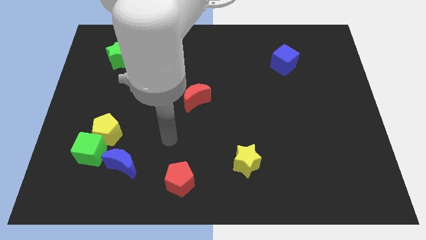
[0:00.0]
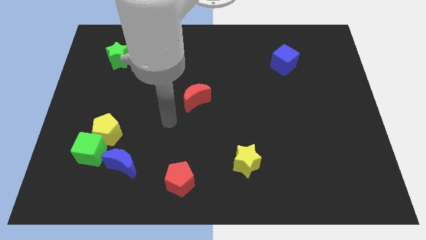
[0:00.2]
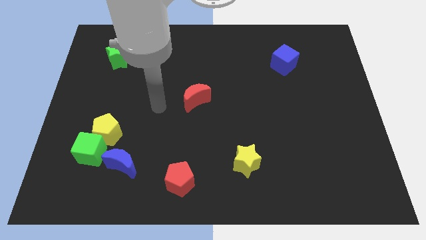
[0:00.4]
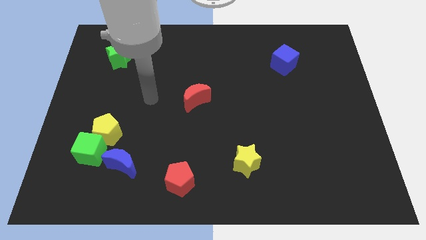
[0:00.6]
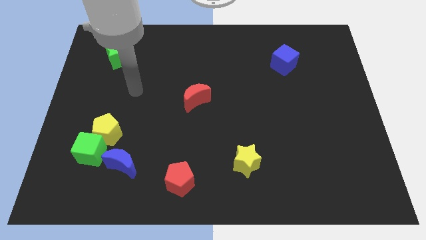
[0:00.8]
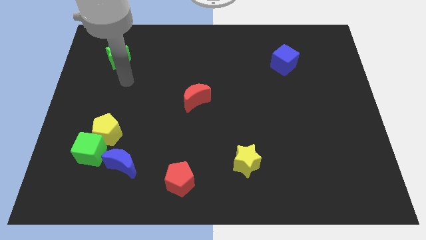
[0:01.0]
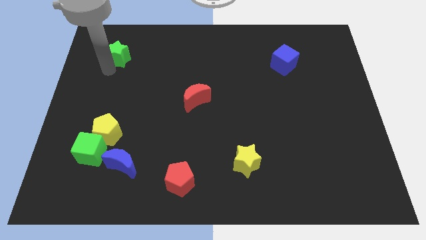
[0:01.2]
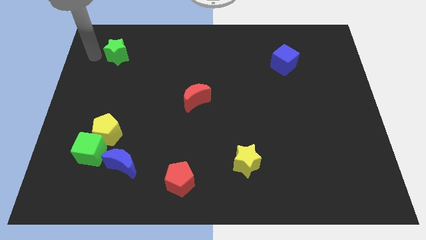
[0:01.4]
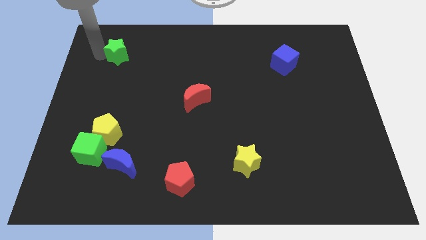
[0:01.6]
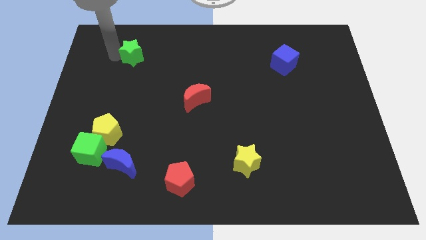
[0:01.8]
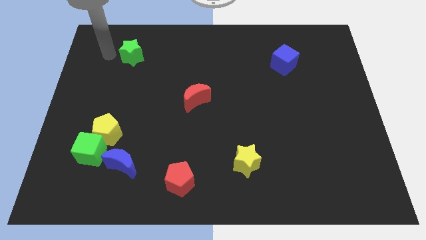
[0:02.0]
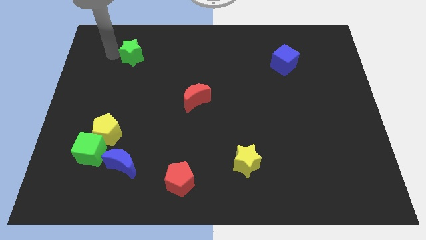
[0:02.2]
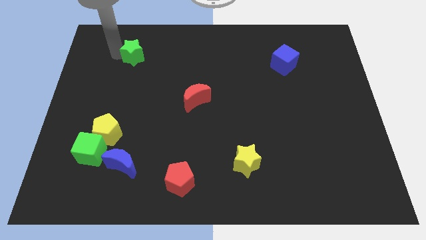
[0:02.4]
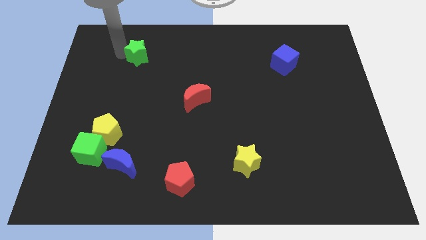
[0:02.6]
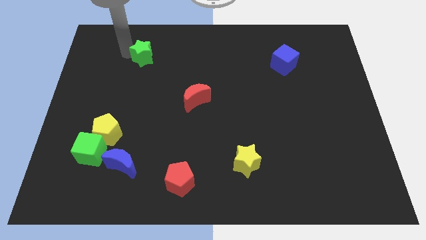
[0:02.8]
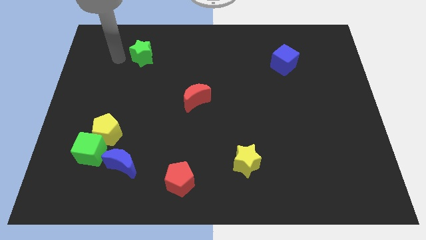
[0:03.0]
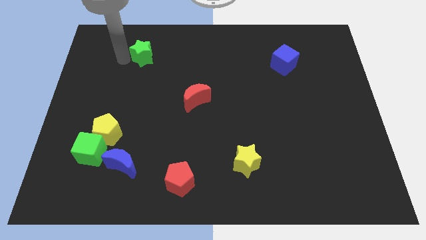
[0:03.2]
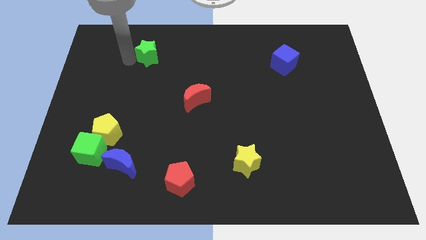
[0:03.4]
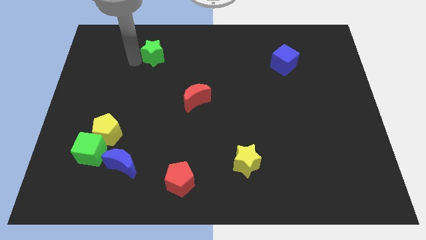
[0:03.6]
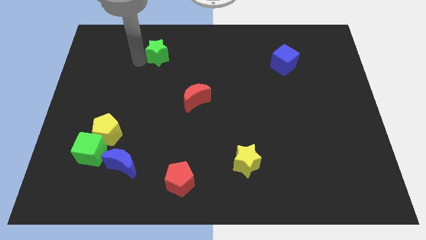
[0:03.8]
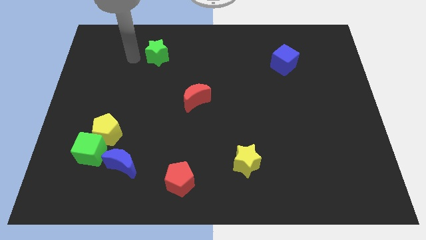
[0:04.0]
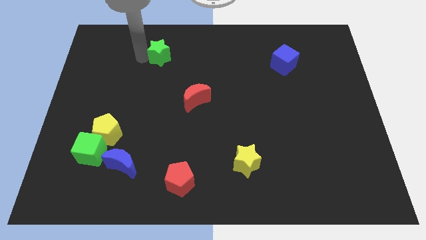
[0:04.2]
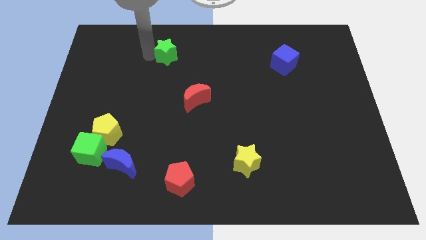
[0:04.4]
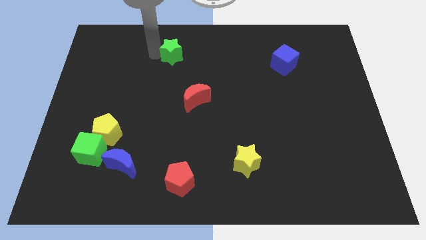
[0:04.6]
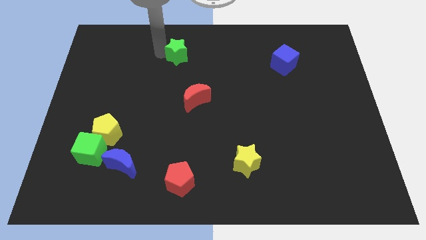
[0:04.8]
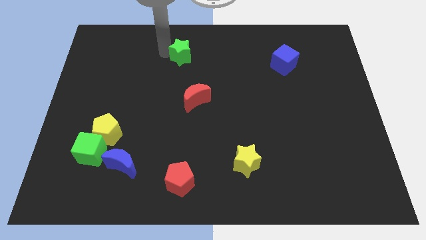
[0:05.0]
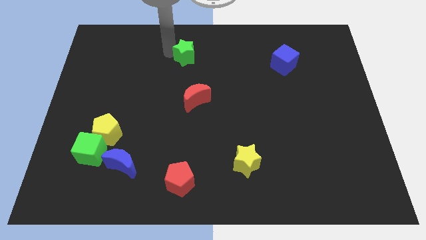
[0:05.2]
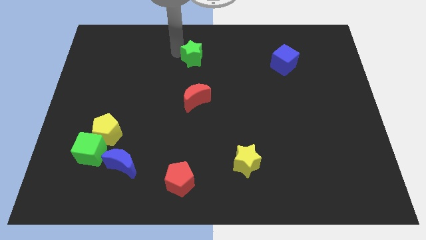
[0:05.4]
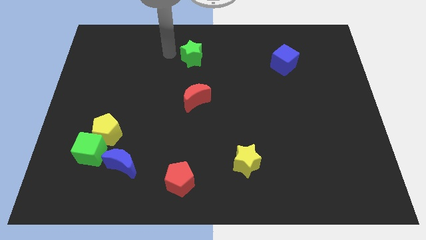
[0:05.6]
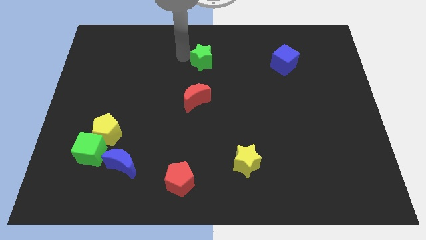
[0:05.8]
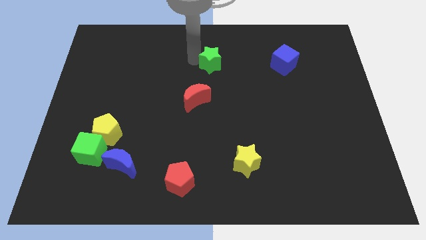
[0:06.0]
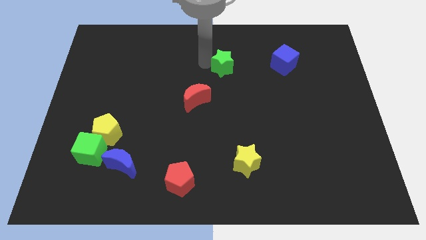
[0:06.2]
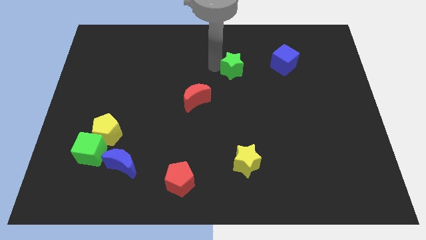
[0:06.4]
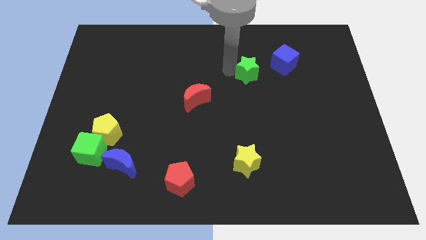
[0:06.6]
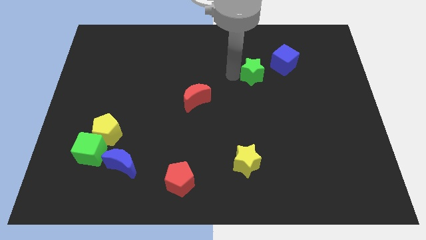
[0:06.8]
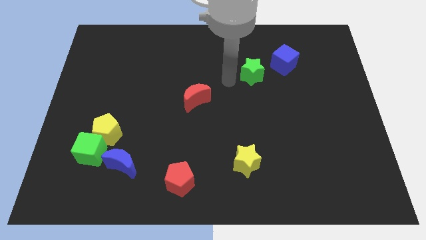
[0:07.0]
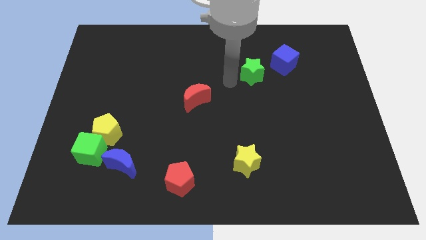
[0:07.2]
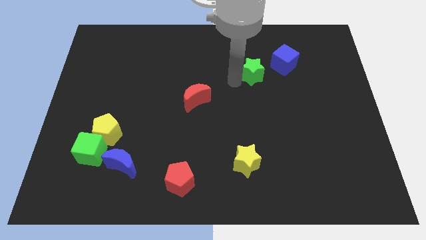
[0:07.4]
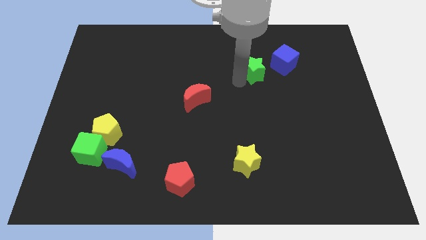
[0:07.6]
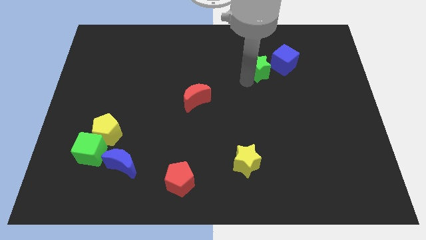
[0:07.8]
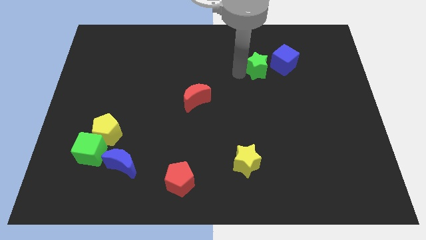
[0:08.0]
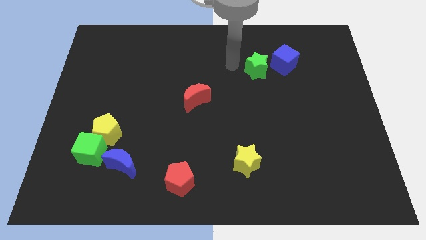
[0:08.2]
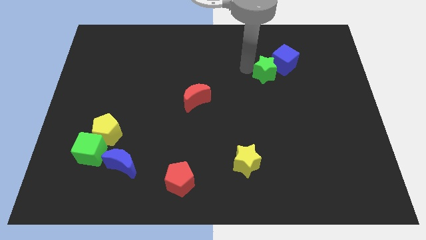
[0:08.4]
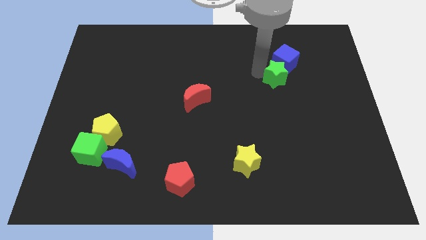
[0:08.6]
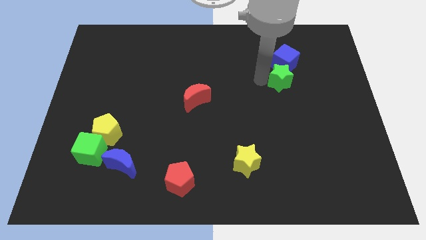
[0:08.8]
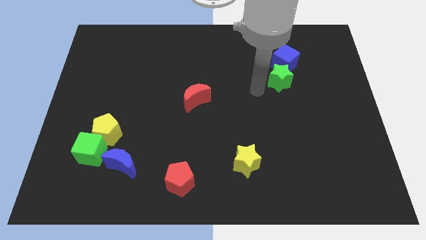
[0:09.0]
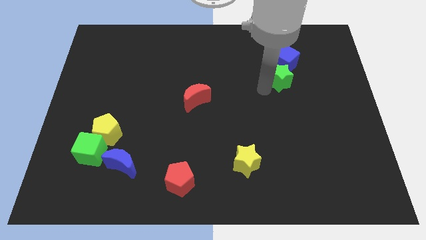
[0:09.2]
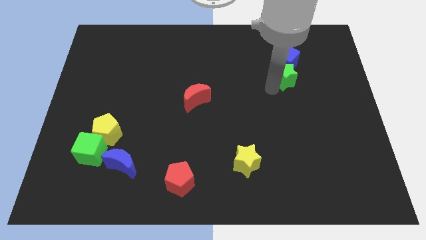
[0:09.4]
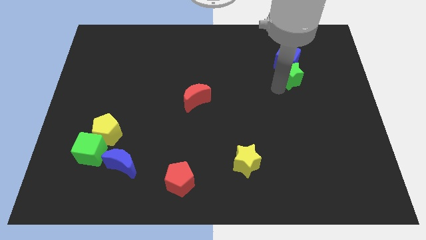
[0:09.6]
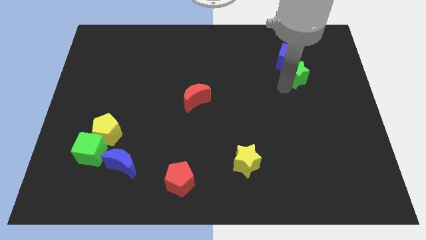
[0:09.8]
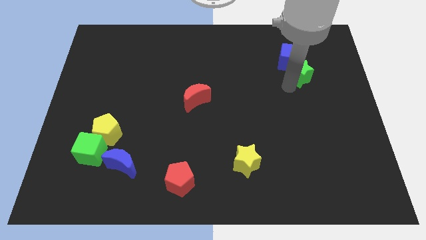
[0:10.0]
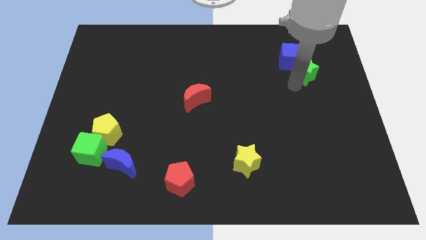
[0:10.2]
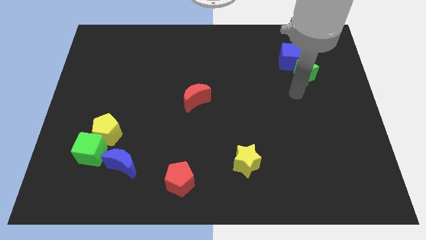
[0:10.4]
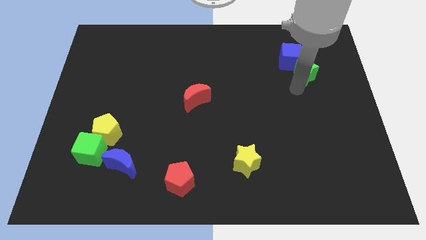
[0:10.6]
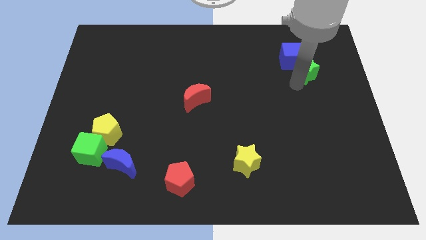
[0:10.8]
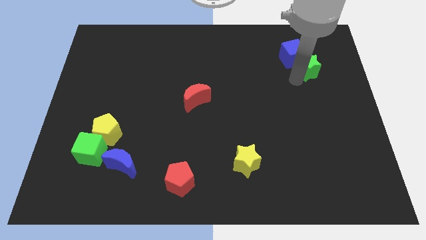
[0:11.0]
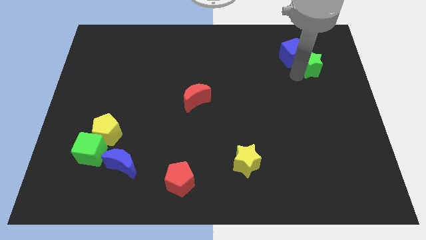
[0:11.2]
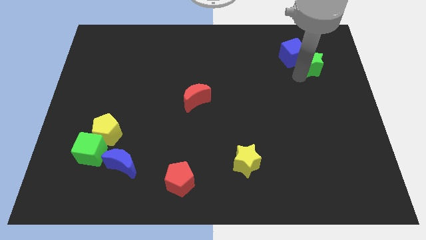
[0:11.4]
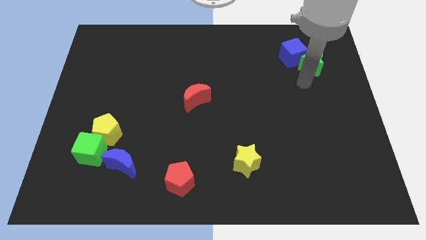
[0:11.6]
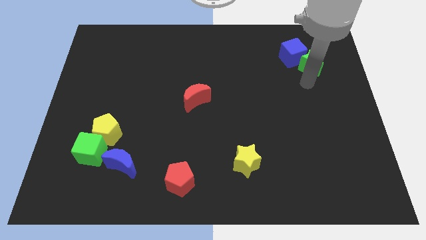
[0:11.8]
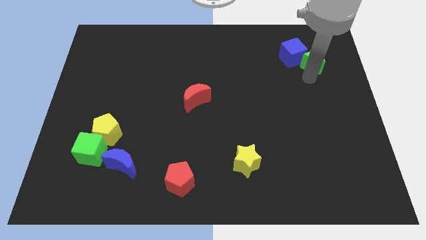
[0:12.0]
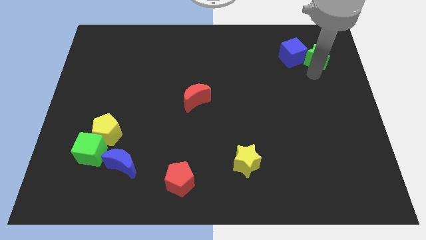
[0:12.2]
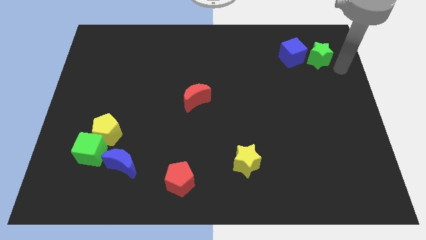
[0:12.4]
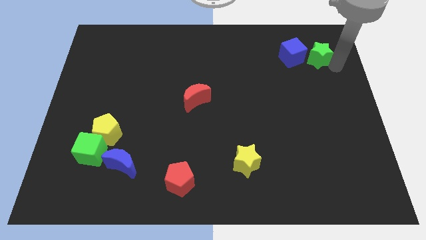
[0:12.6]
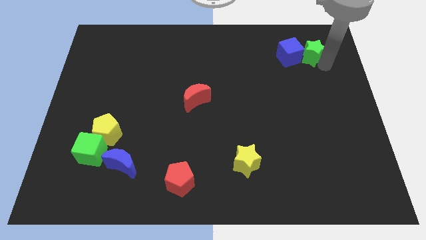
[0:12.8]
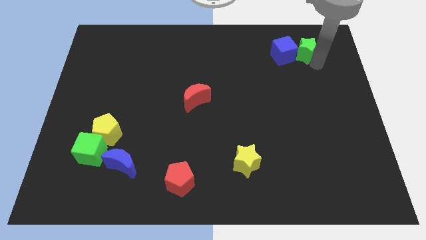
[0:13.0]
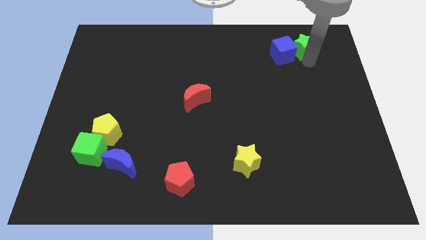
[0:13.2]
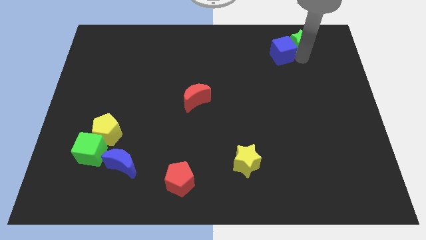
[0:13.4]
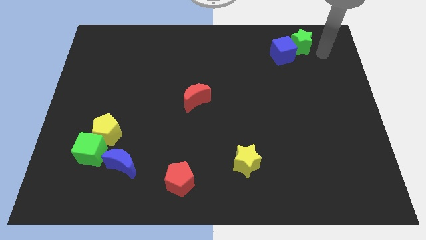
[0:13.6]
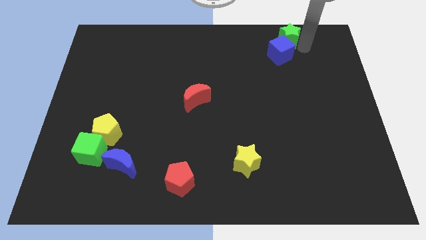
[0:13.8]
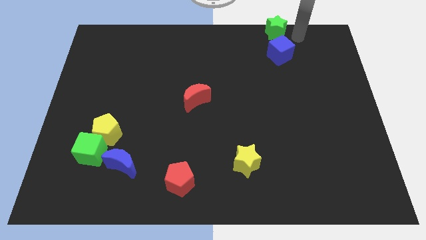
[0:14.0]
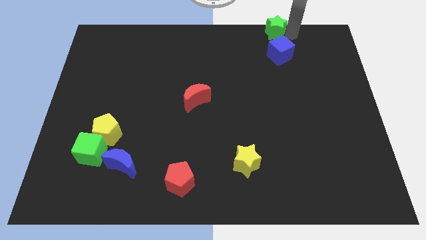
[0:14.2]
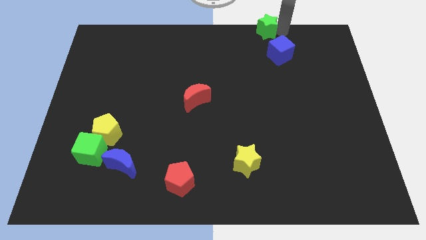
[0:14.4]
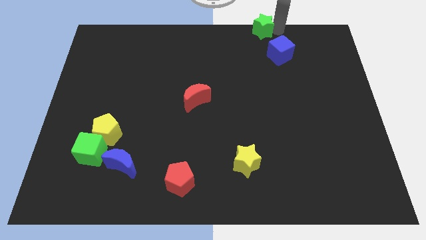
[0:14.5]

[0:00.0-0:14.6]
move the green star to the top
